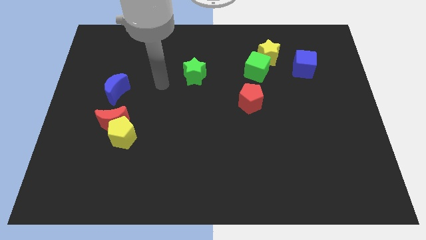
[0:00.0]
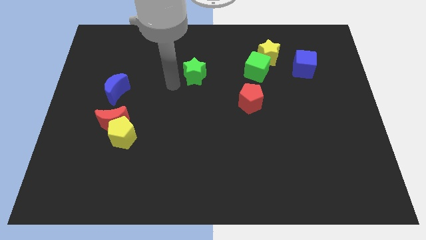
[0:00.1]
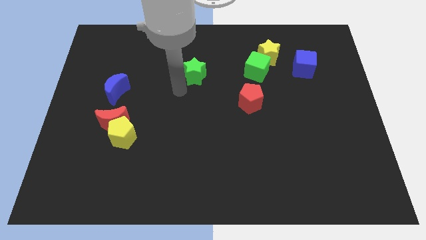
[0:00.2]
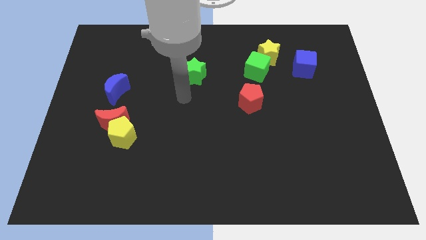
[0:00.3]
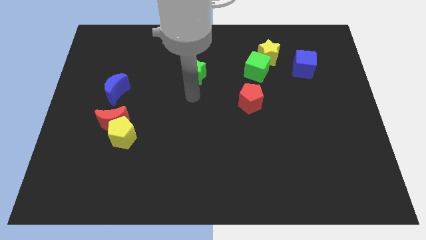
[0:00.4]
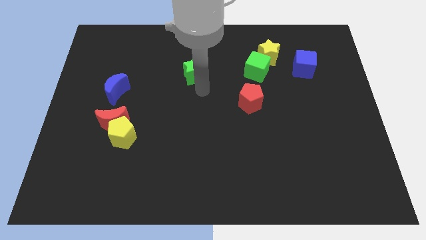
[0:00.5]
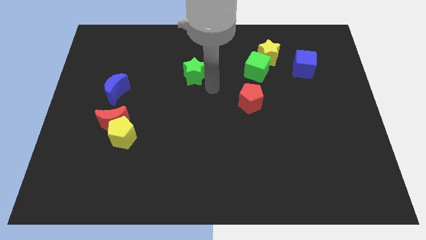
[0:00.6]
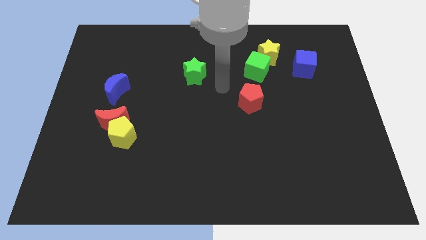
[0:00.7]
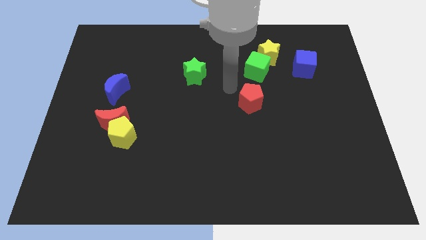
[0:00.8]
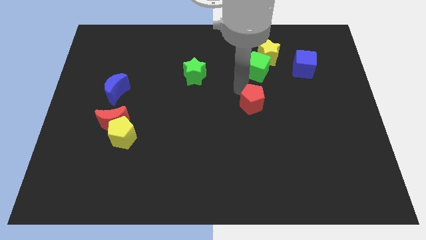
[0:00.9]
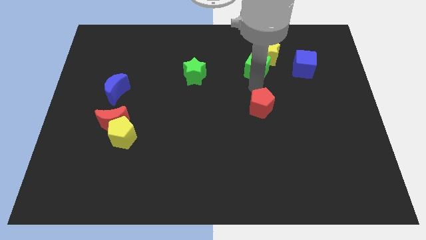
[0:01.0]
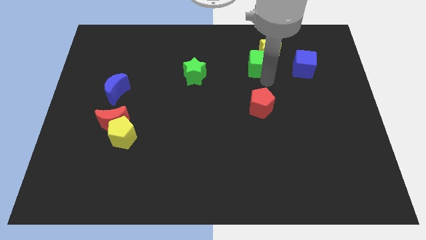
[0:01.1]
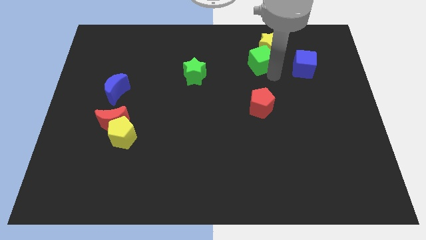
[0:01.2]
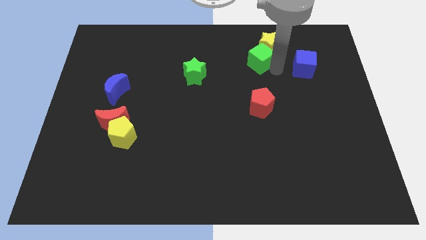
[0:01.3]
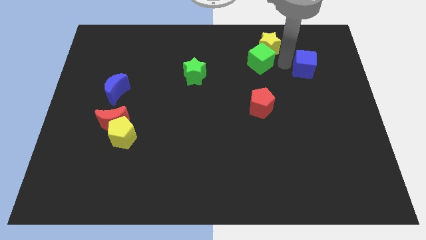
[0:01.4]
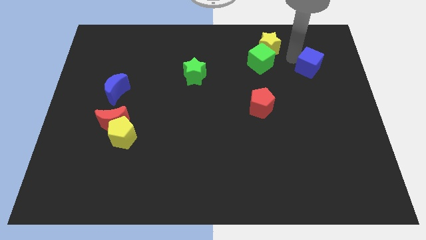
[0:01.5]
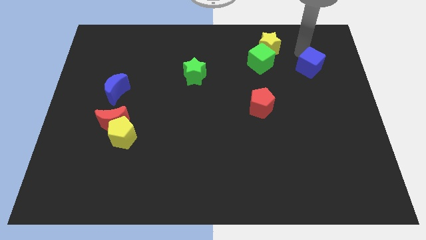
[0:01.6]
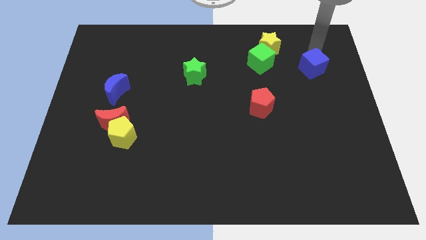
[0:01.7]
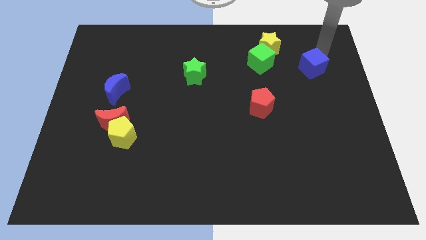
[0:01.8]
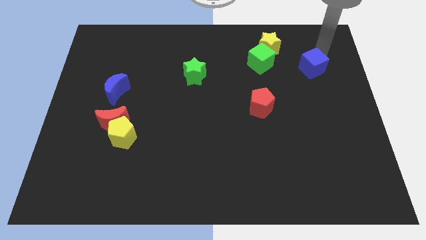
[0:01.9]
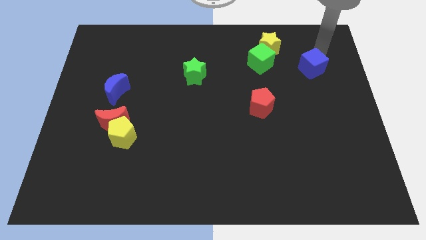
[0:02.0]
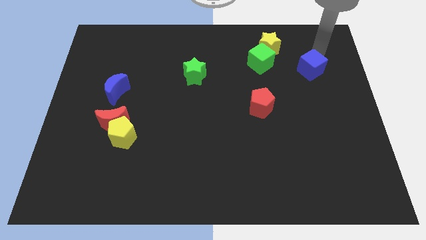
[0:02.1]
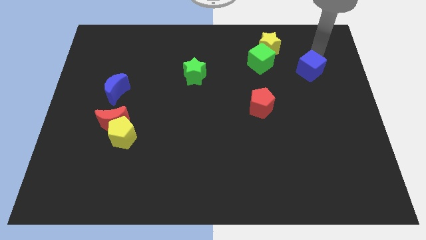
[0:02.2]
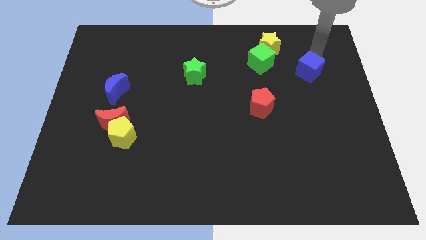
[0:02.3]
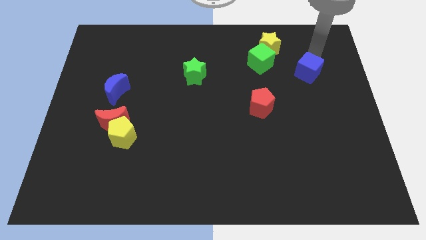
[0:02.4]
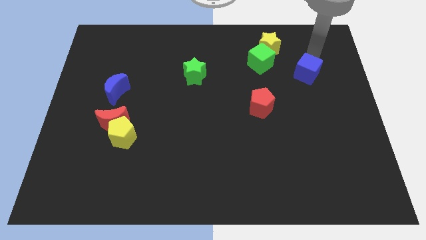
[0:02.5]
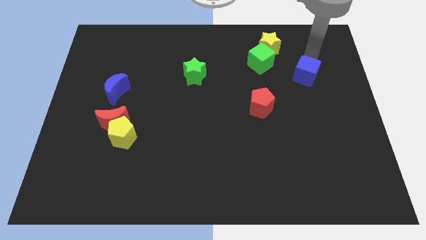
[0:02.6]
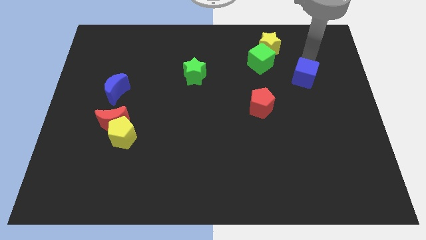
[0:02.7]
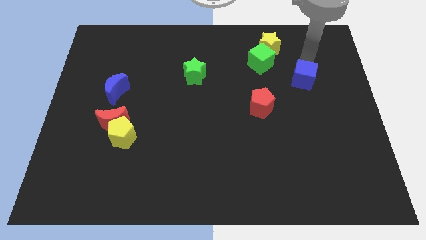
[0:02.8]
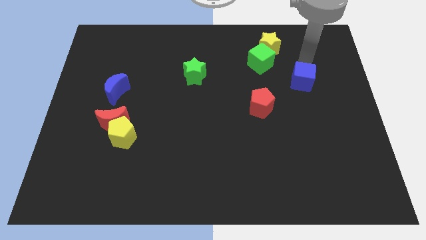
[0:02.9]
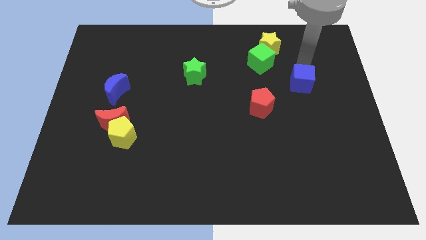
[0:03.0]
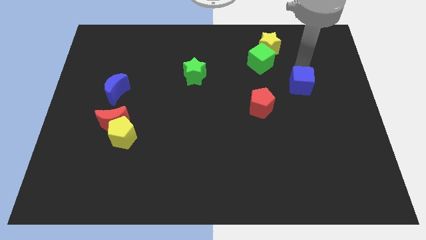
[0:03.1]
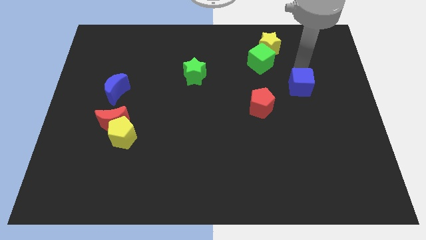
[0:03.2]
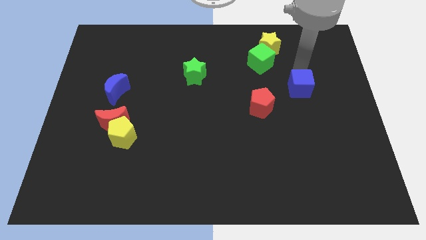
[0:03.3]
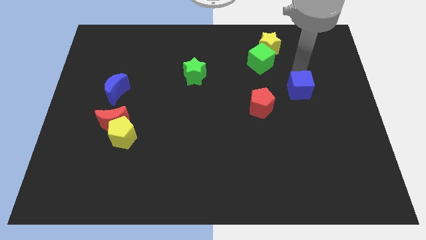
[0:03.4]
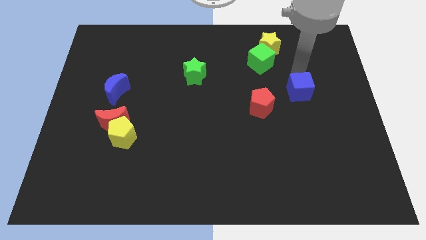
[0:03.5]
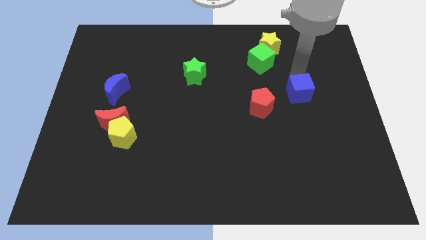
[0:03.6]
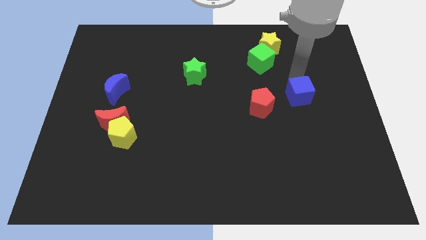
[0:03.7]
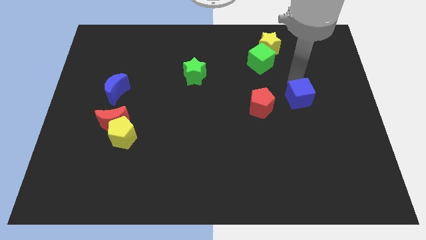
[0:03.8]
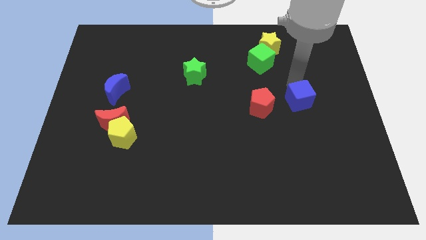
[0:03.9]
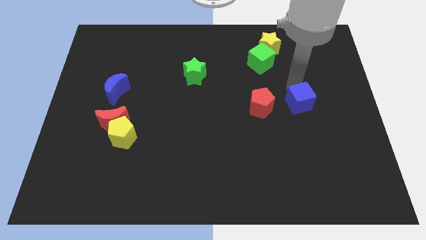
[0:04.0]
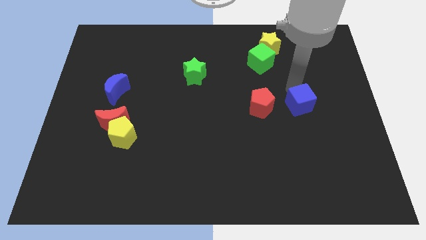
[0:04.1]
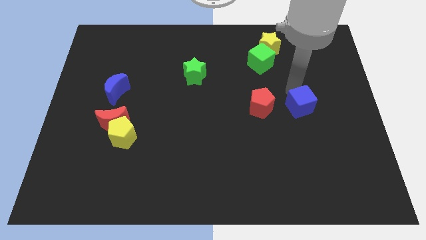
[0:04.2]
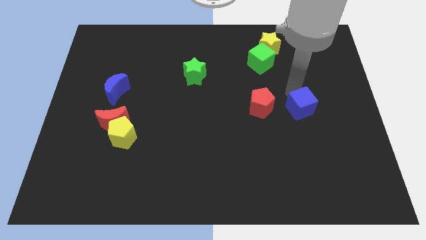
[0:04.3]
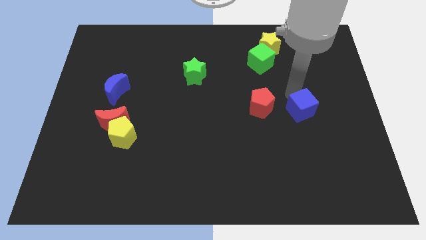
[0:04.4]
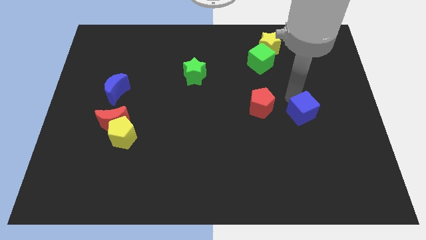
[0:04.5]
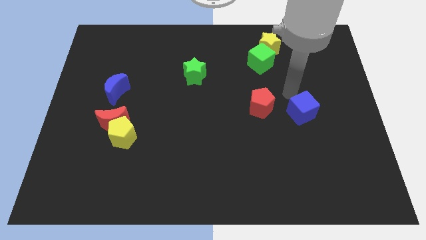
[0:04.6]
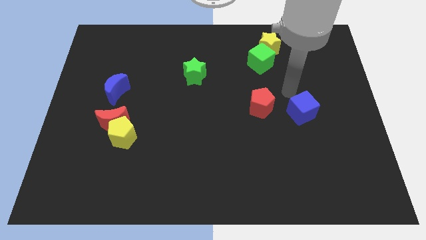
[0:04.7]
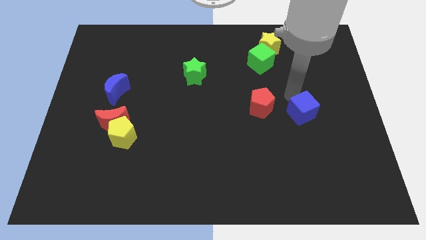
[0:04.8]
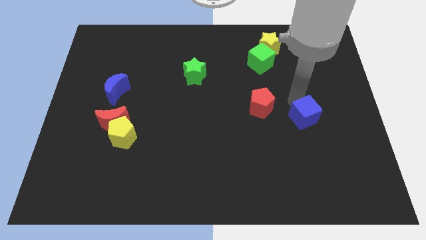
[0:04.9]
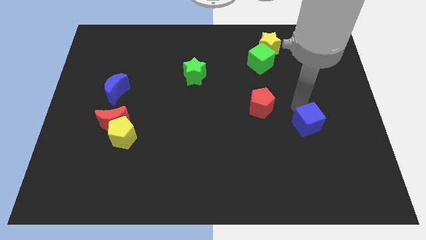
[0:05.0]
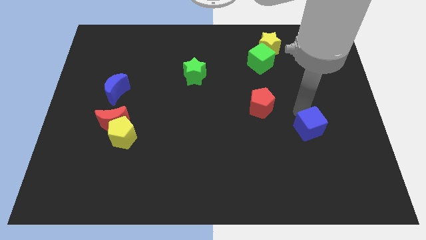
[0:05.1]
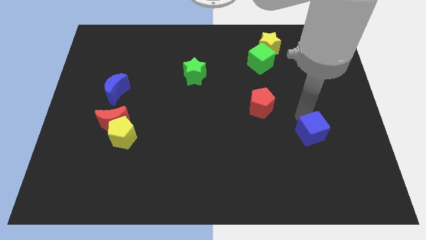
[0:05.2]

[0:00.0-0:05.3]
push the blue cube down

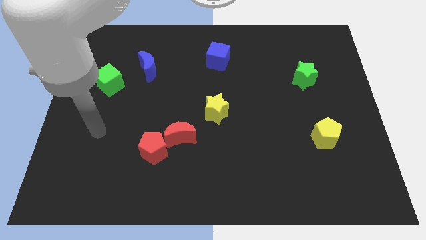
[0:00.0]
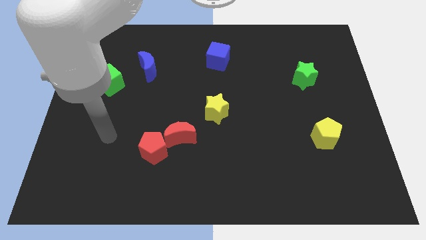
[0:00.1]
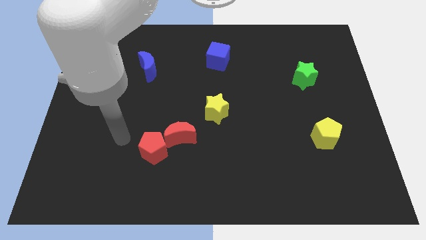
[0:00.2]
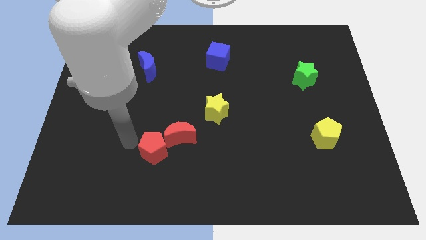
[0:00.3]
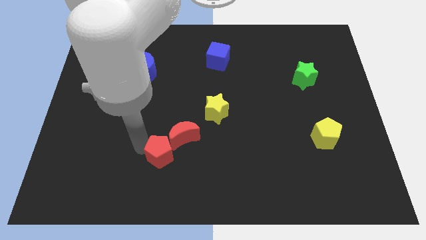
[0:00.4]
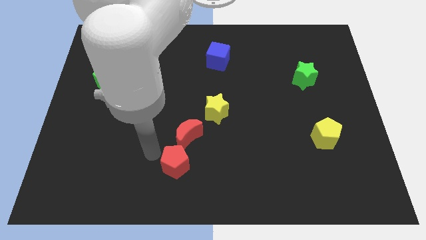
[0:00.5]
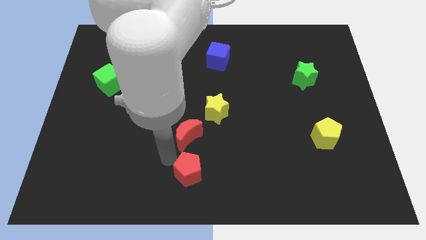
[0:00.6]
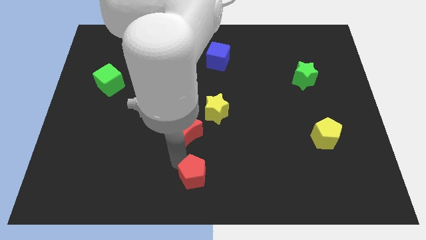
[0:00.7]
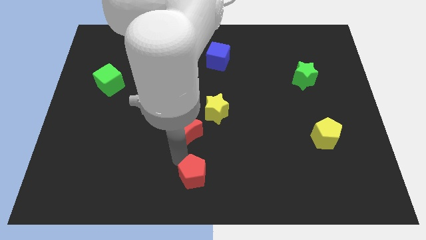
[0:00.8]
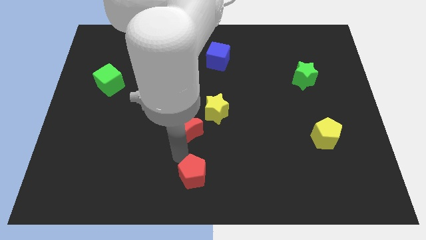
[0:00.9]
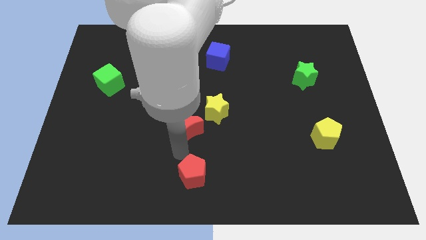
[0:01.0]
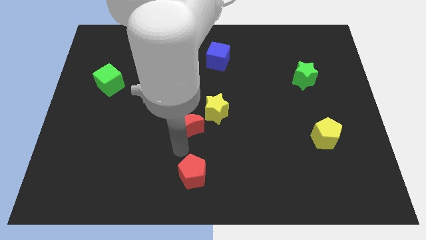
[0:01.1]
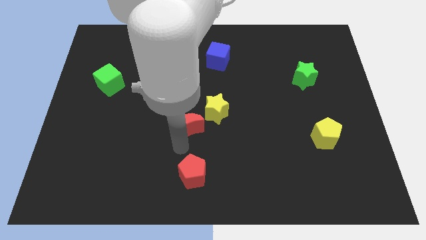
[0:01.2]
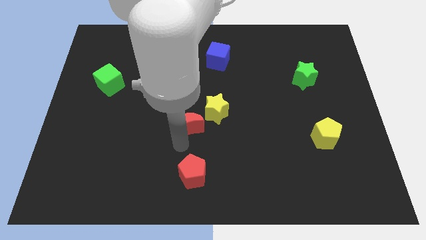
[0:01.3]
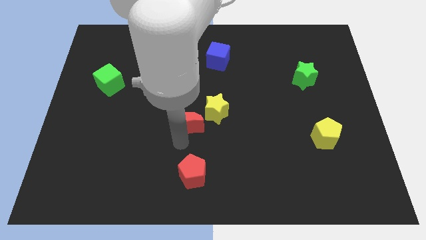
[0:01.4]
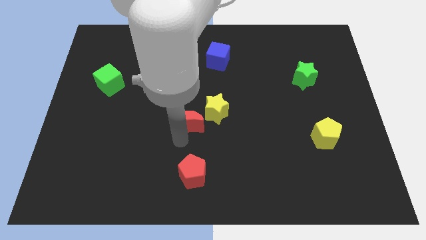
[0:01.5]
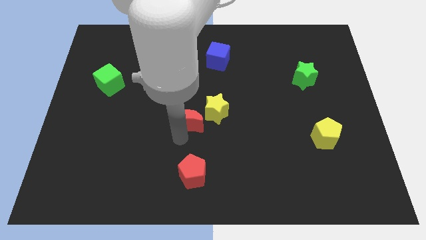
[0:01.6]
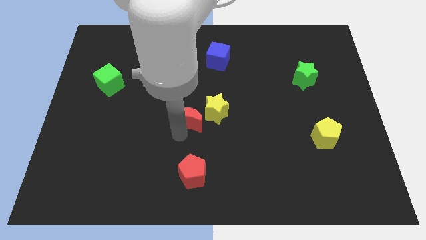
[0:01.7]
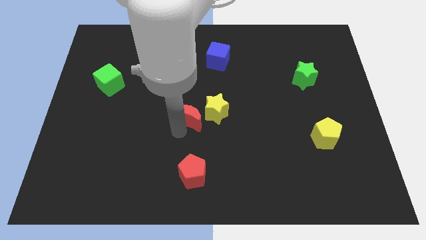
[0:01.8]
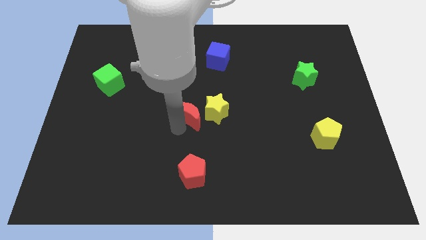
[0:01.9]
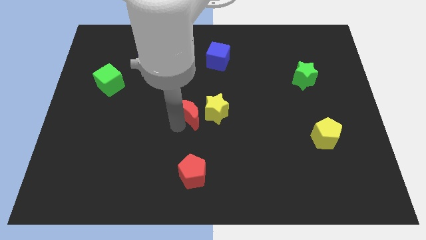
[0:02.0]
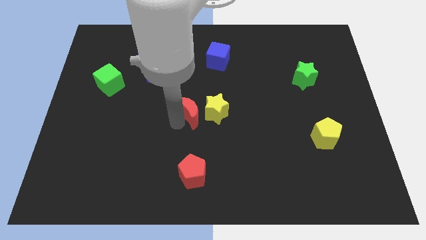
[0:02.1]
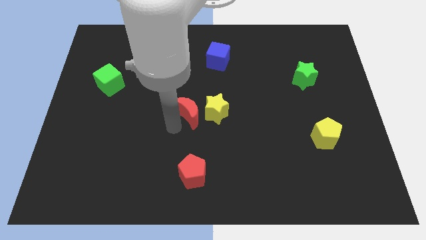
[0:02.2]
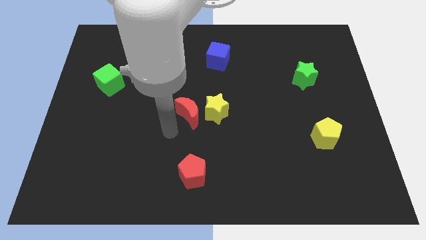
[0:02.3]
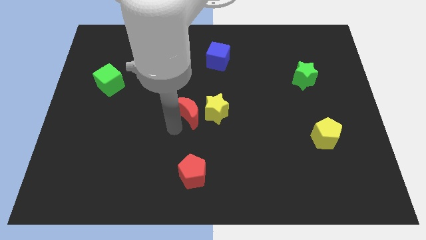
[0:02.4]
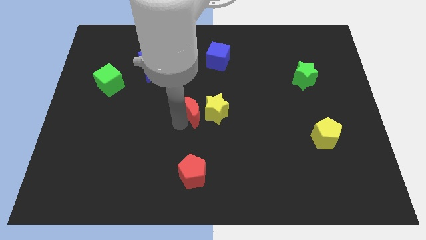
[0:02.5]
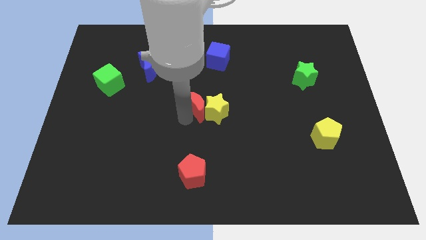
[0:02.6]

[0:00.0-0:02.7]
push the red moon a little bit up and then to the right

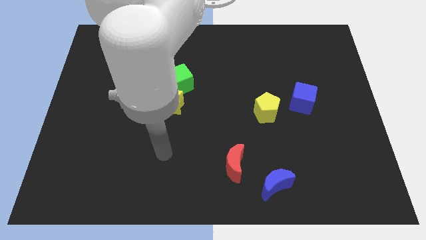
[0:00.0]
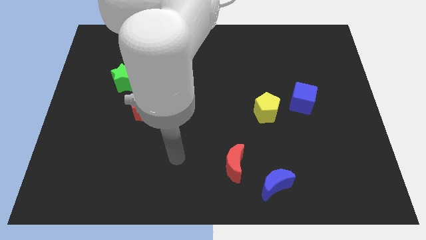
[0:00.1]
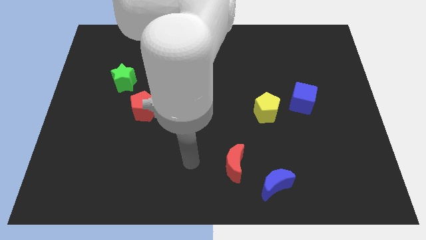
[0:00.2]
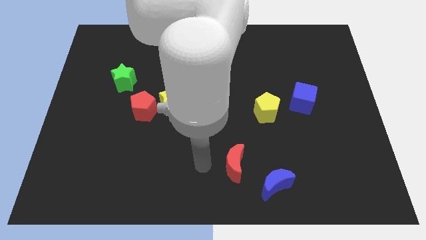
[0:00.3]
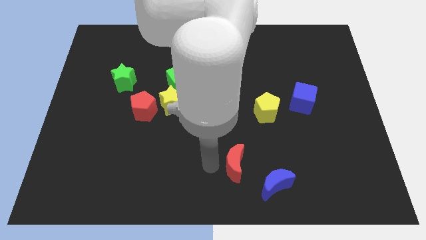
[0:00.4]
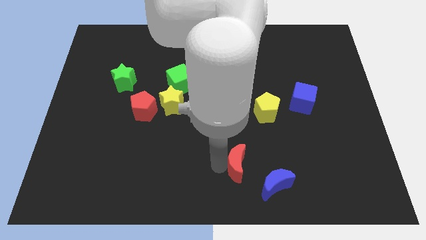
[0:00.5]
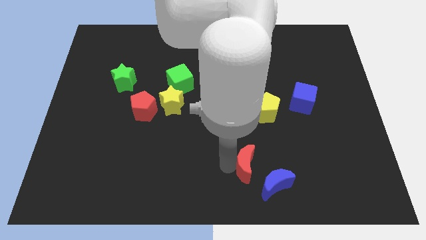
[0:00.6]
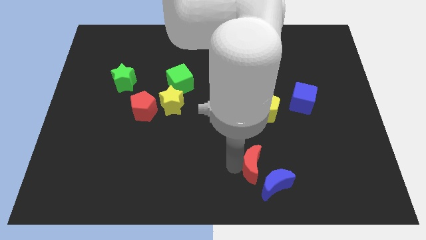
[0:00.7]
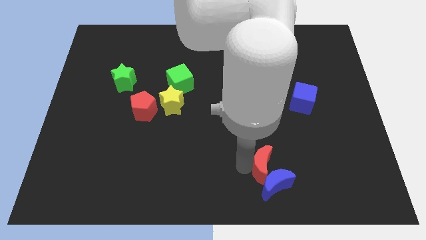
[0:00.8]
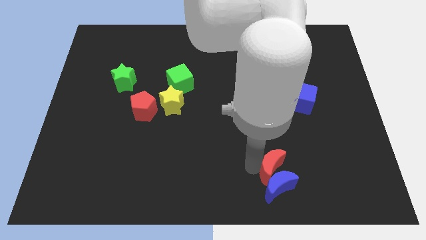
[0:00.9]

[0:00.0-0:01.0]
move the red moon to the right slightly
